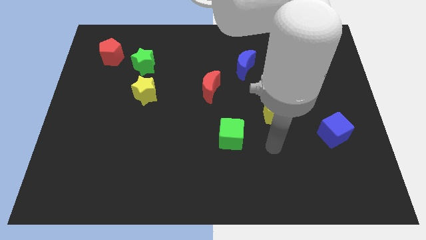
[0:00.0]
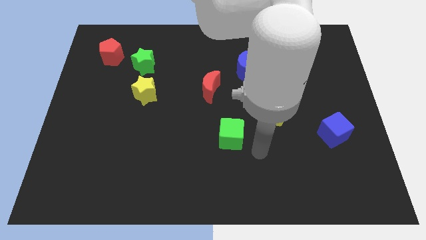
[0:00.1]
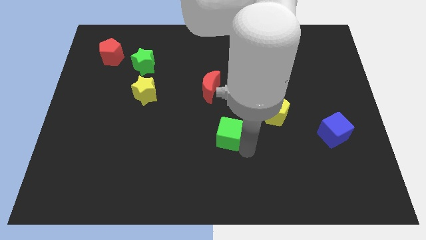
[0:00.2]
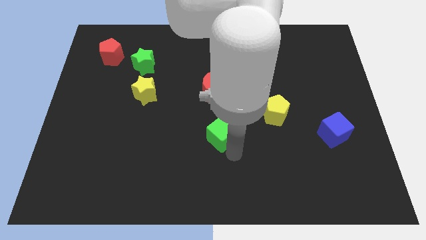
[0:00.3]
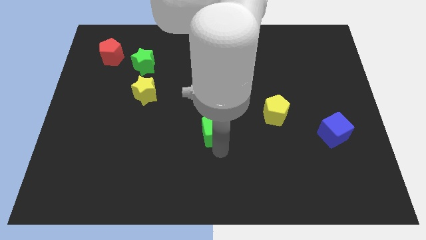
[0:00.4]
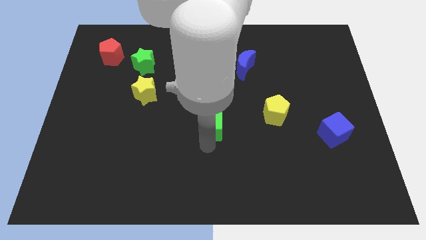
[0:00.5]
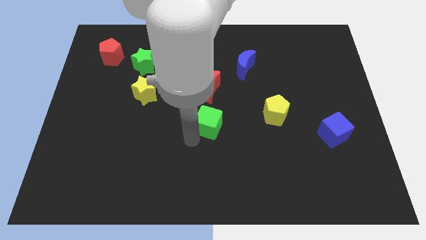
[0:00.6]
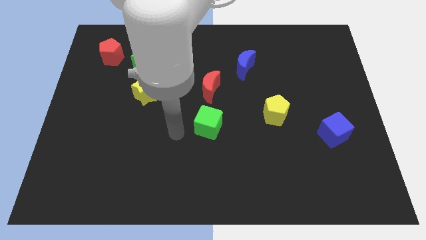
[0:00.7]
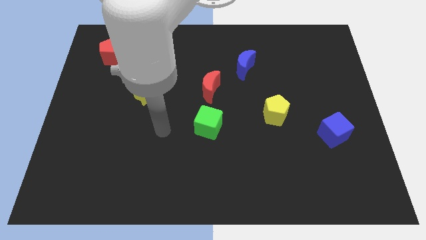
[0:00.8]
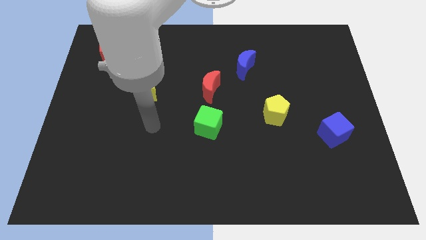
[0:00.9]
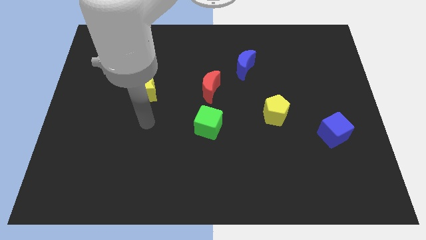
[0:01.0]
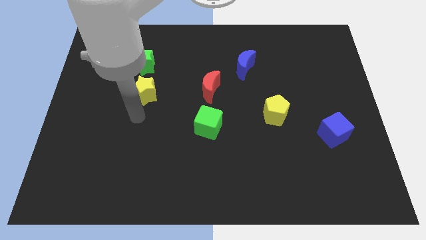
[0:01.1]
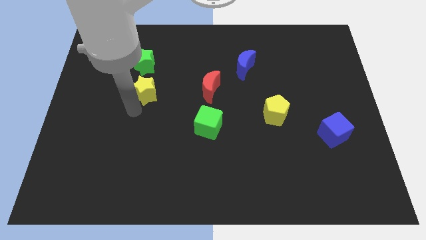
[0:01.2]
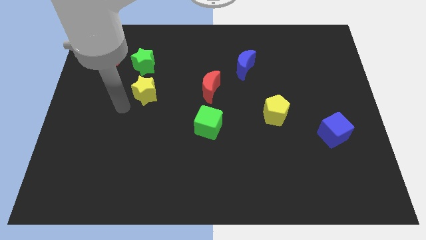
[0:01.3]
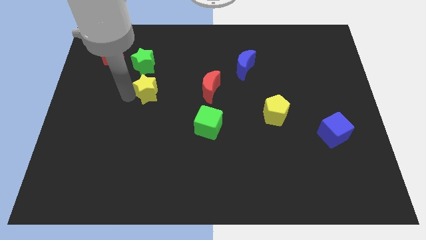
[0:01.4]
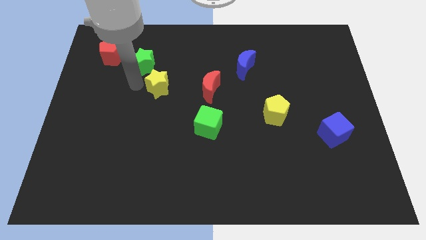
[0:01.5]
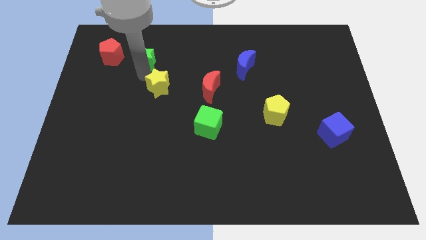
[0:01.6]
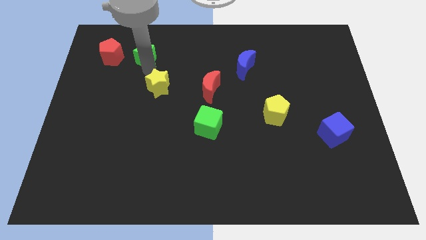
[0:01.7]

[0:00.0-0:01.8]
move the yellow star away from the green star

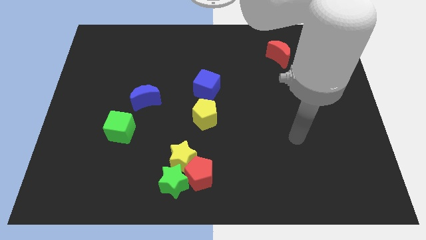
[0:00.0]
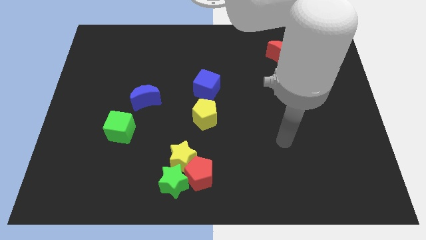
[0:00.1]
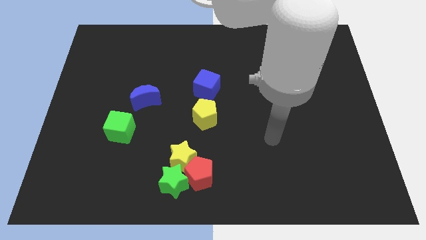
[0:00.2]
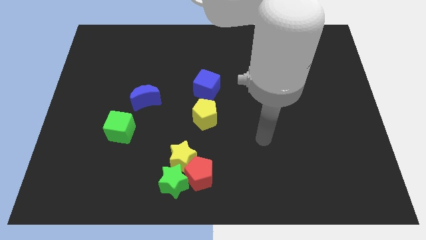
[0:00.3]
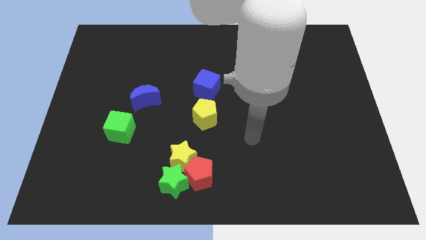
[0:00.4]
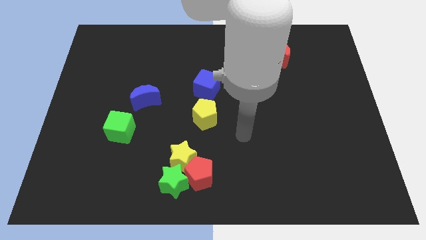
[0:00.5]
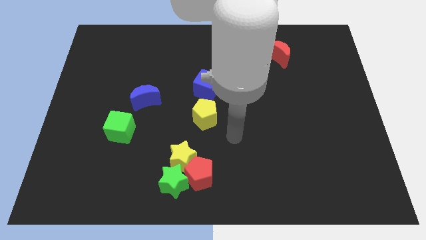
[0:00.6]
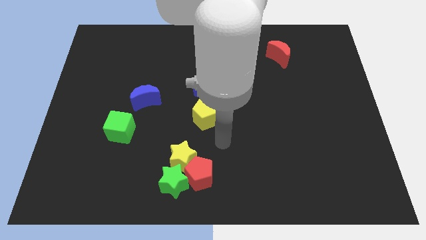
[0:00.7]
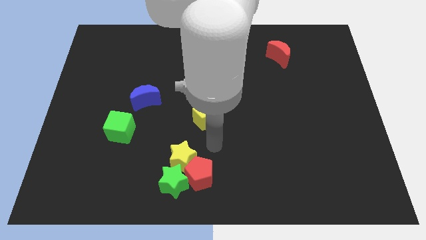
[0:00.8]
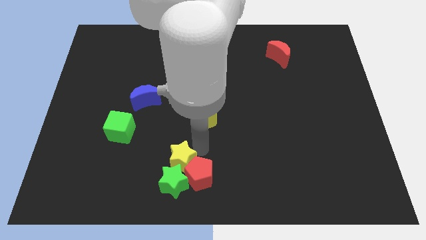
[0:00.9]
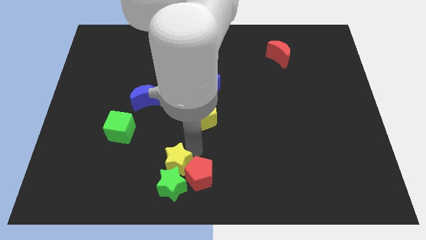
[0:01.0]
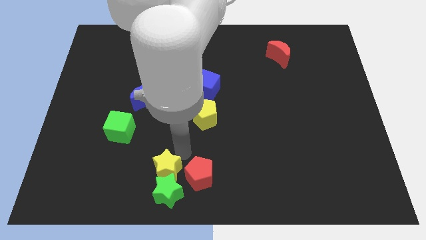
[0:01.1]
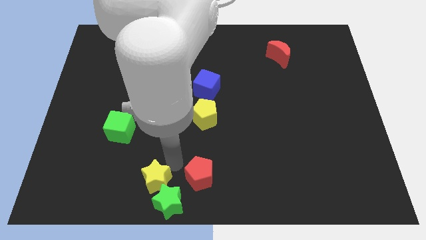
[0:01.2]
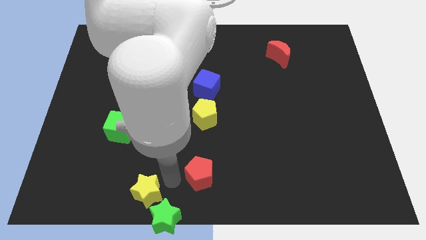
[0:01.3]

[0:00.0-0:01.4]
pull the red pentagon apart from the yellow star and green star

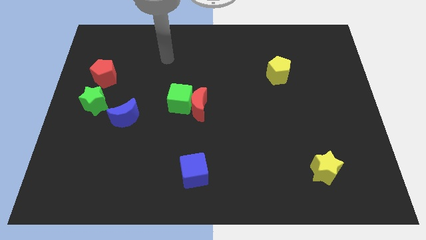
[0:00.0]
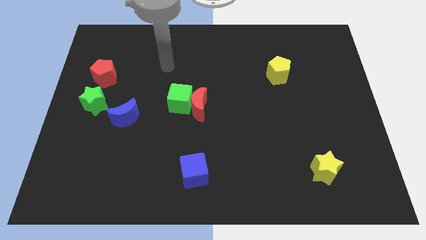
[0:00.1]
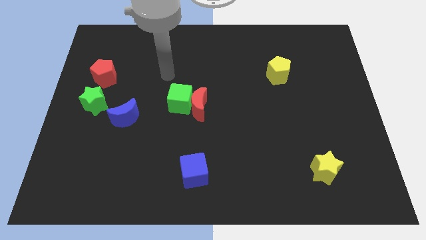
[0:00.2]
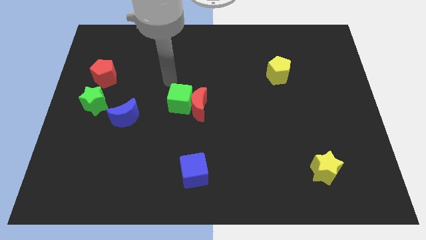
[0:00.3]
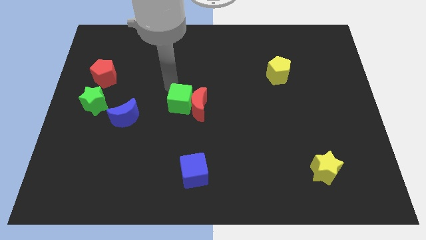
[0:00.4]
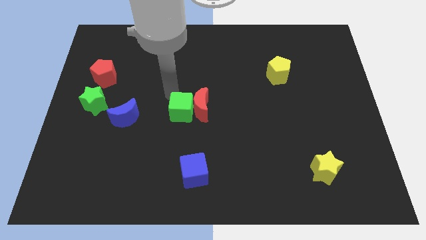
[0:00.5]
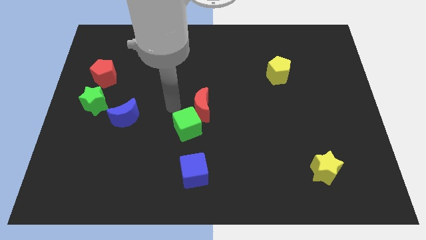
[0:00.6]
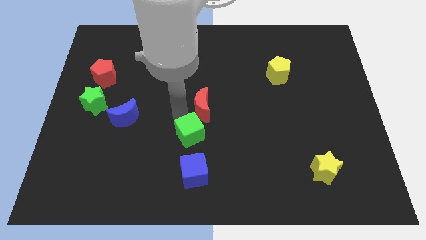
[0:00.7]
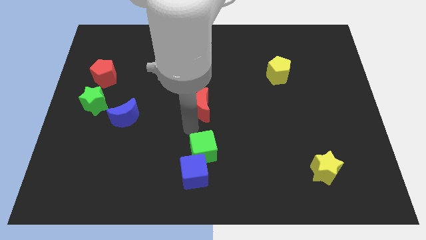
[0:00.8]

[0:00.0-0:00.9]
pull the red moon apart from the green cube

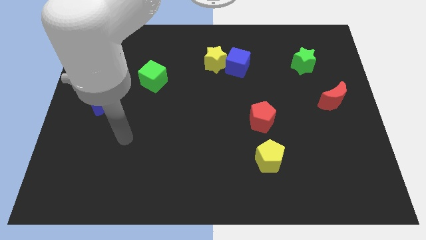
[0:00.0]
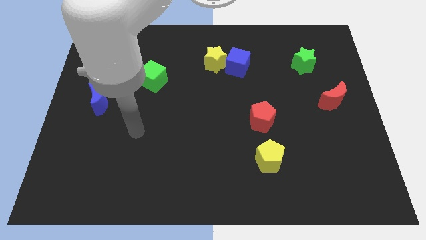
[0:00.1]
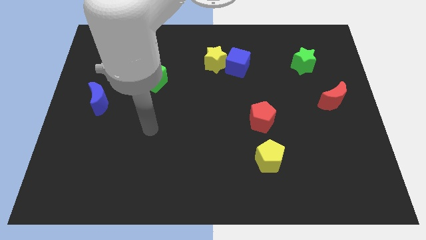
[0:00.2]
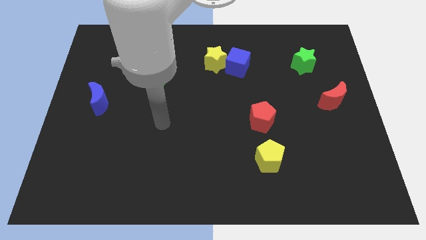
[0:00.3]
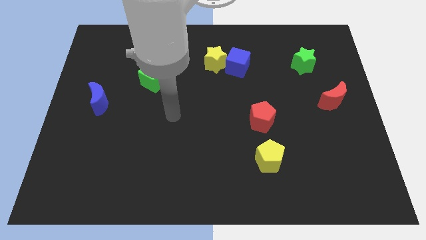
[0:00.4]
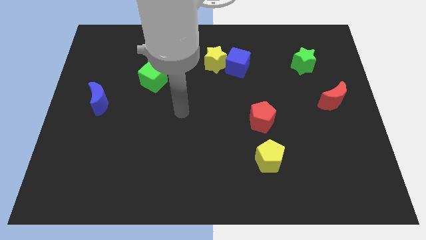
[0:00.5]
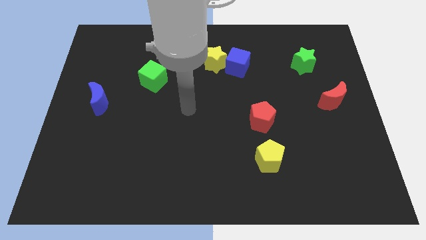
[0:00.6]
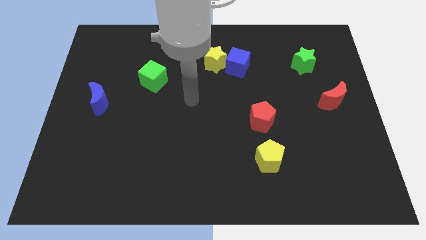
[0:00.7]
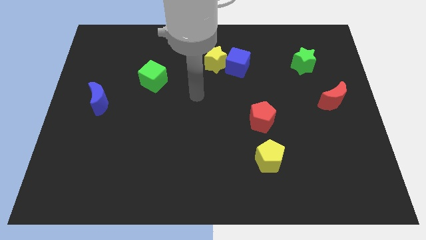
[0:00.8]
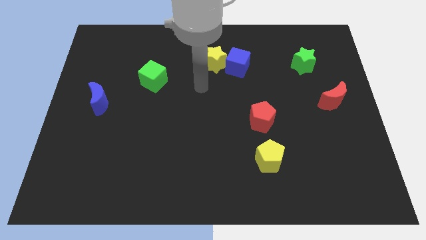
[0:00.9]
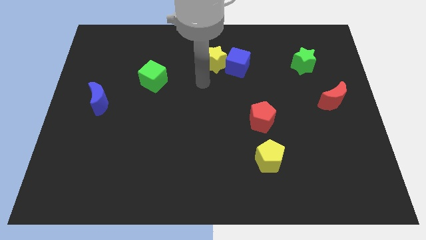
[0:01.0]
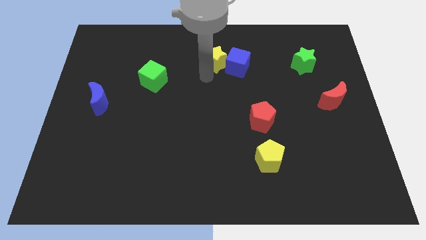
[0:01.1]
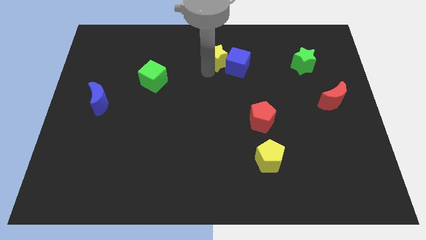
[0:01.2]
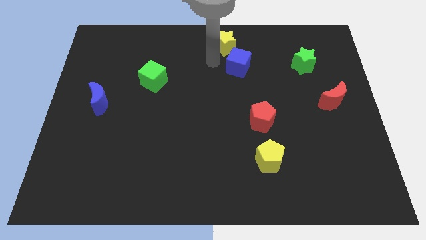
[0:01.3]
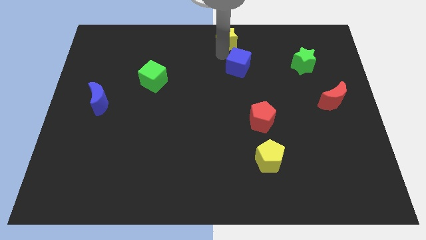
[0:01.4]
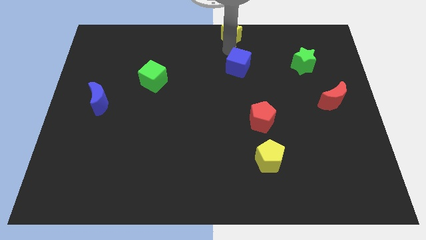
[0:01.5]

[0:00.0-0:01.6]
separate the blue cube from the yellow star

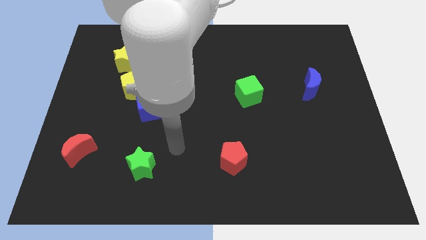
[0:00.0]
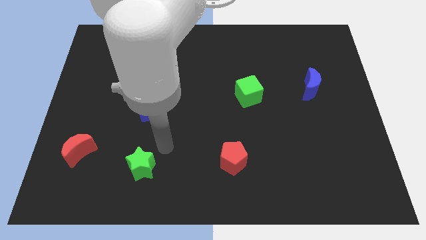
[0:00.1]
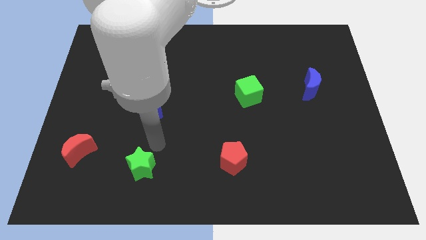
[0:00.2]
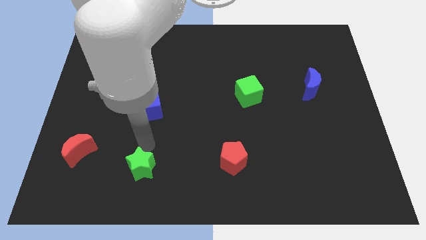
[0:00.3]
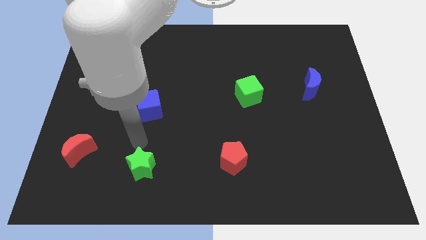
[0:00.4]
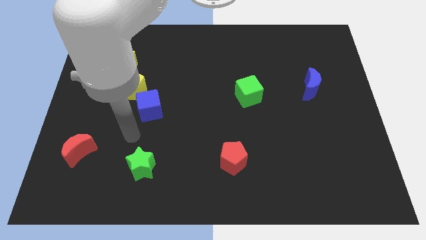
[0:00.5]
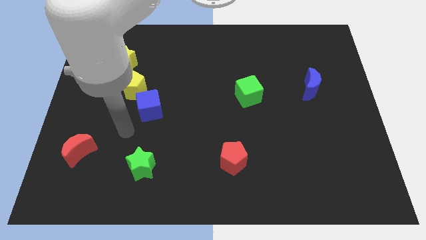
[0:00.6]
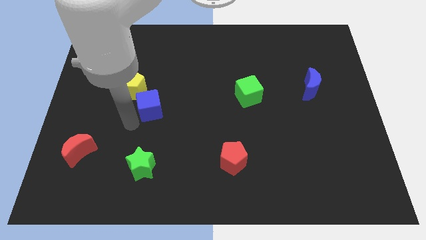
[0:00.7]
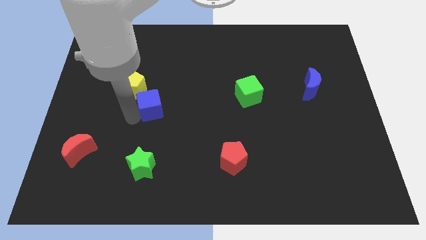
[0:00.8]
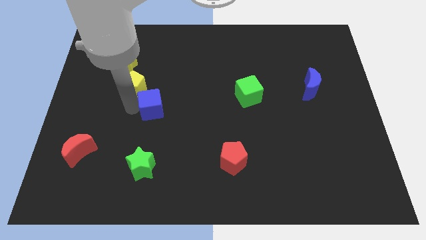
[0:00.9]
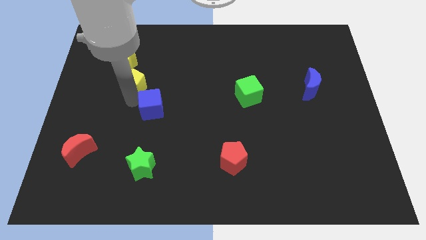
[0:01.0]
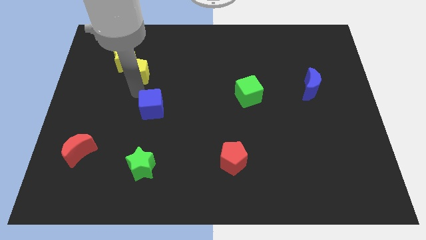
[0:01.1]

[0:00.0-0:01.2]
separate the blue cube from the yellow pentagon

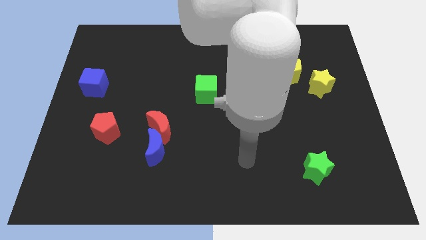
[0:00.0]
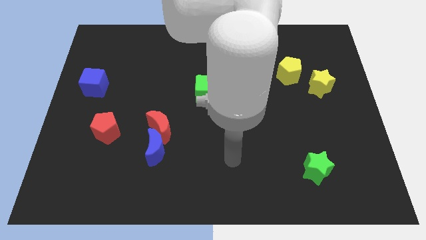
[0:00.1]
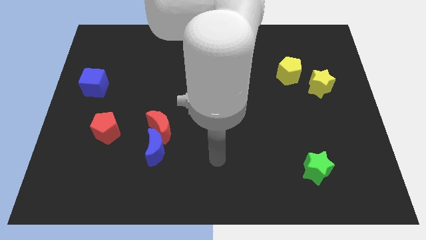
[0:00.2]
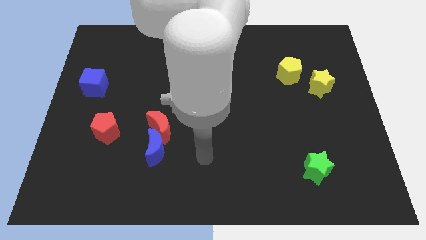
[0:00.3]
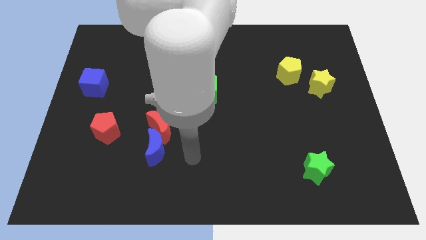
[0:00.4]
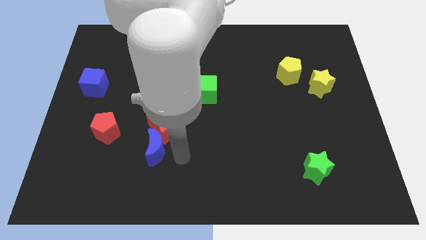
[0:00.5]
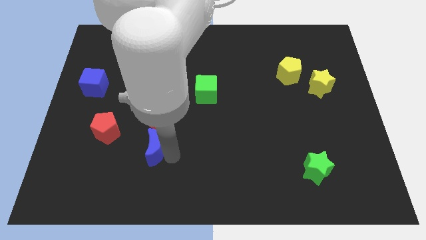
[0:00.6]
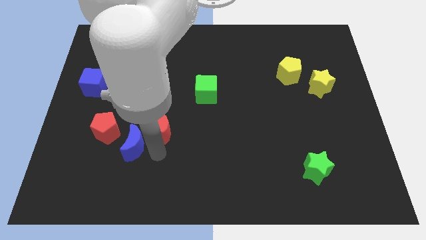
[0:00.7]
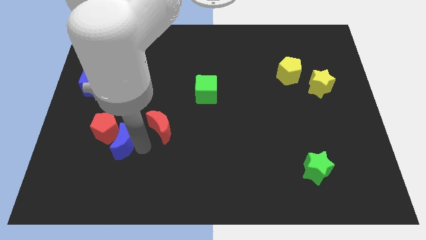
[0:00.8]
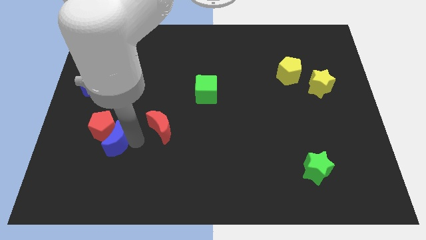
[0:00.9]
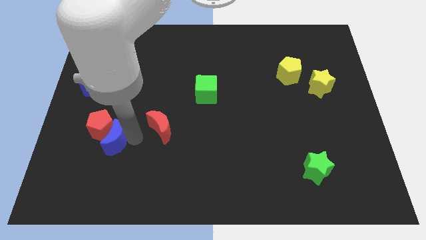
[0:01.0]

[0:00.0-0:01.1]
pull the red moon apart from the blue moon

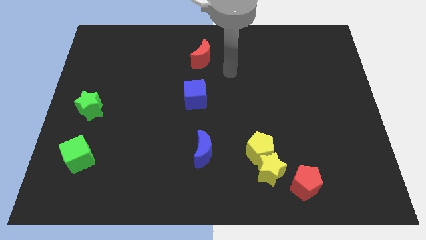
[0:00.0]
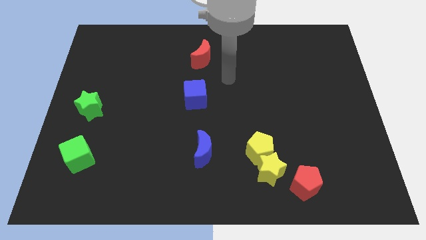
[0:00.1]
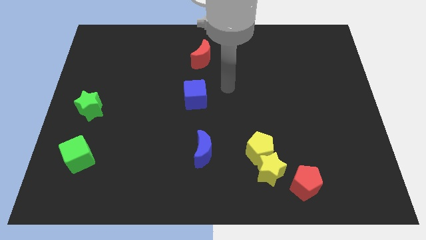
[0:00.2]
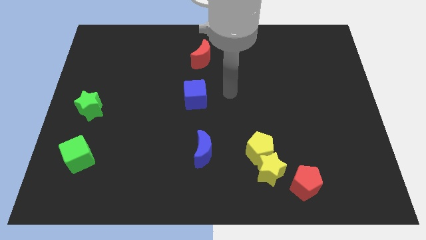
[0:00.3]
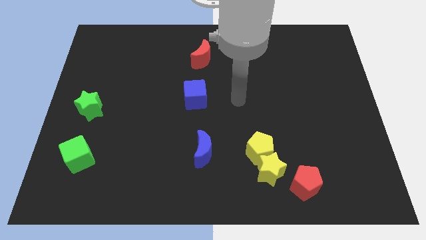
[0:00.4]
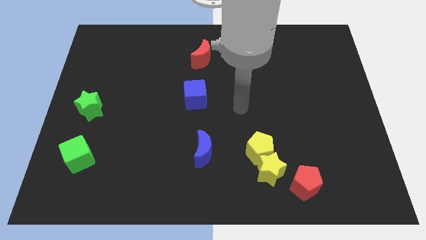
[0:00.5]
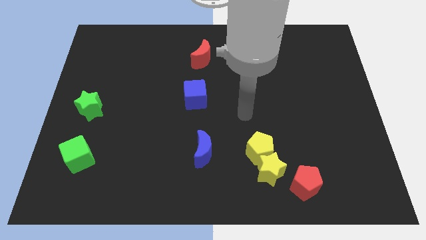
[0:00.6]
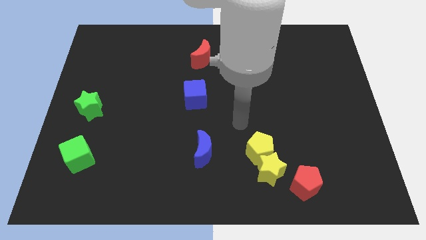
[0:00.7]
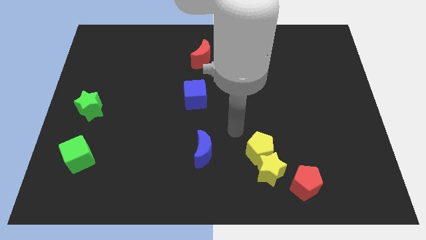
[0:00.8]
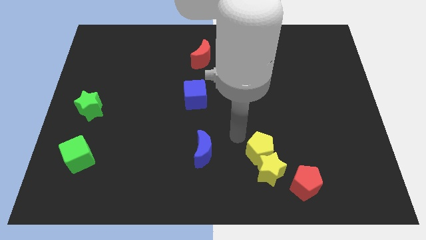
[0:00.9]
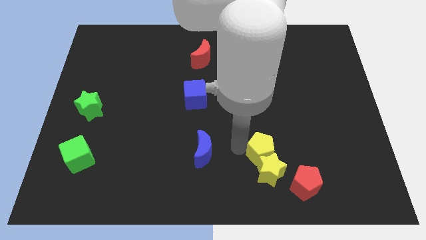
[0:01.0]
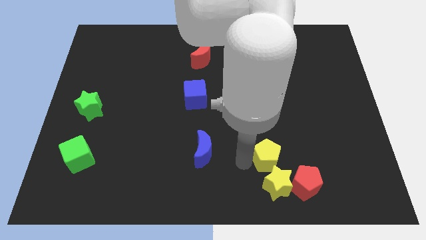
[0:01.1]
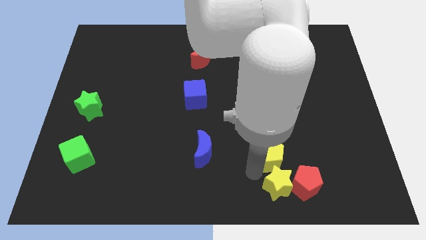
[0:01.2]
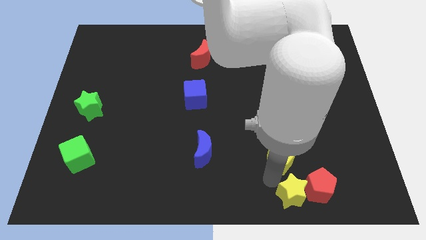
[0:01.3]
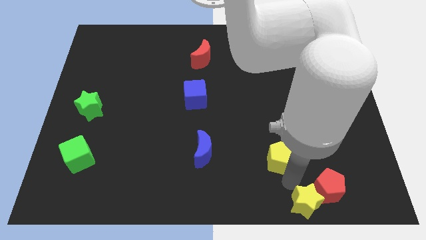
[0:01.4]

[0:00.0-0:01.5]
pull the yellow pentagon apart from the yellow star
